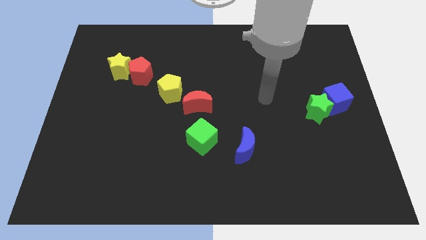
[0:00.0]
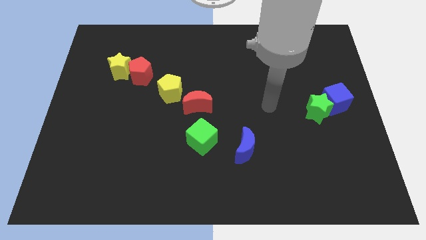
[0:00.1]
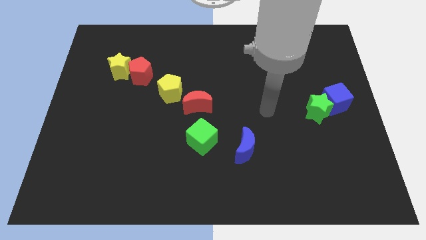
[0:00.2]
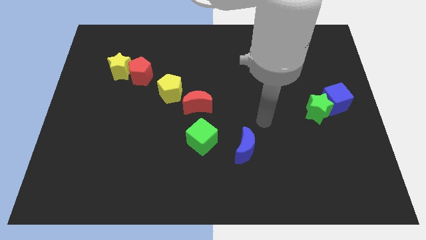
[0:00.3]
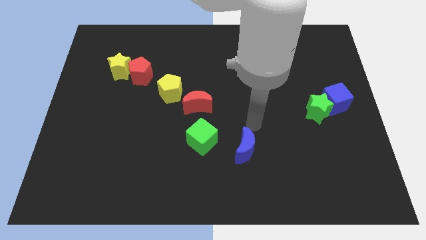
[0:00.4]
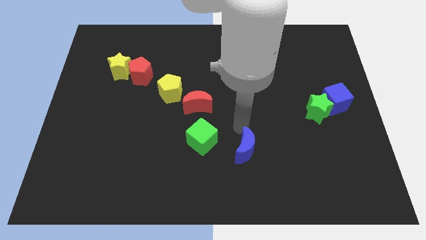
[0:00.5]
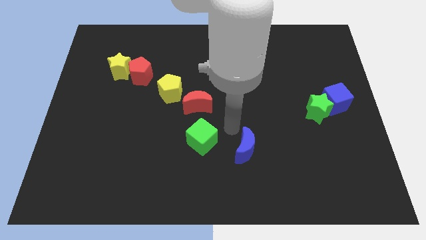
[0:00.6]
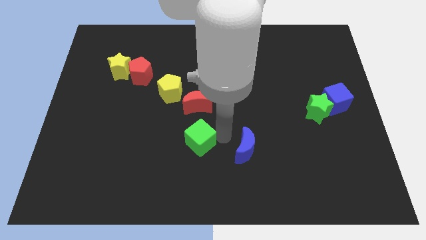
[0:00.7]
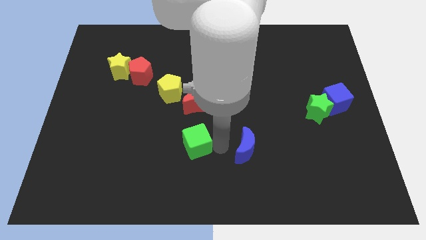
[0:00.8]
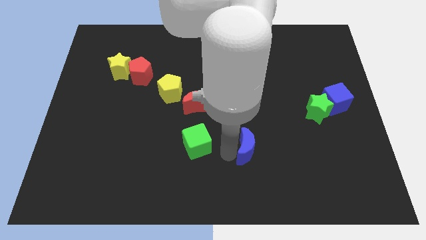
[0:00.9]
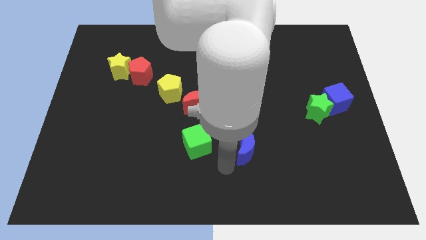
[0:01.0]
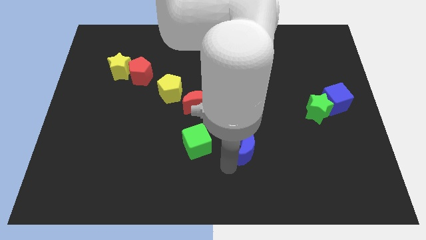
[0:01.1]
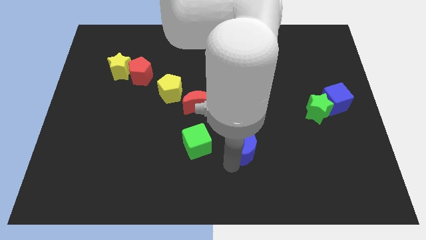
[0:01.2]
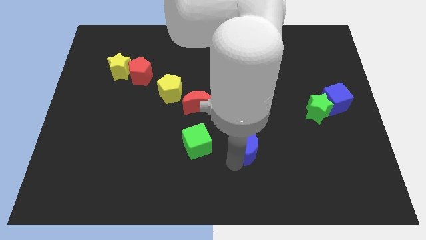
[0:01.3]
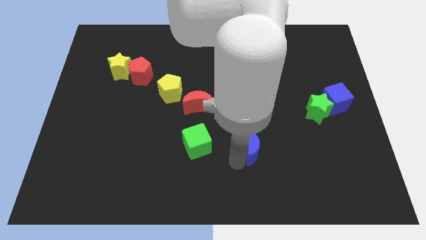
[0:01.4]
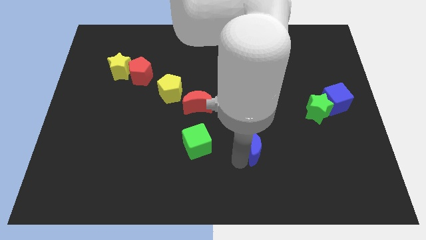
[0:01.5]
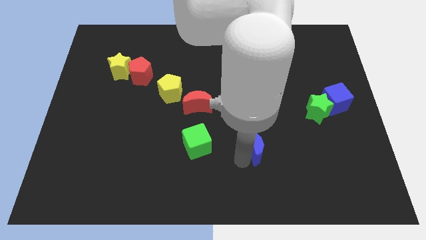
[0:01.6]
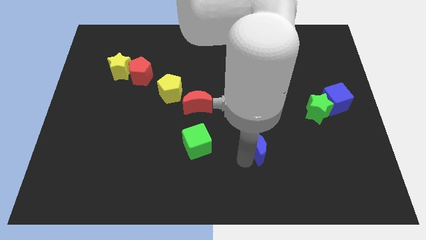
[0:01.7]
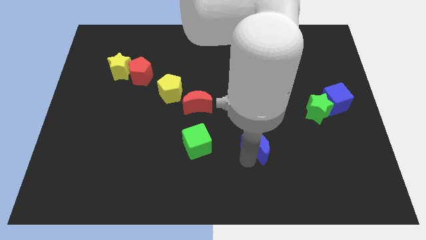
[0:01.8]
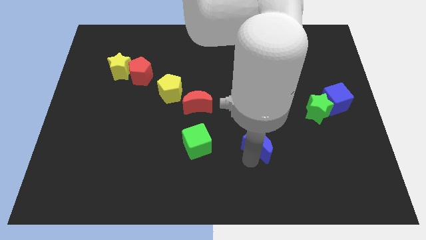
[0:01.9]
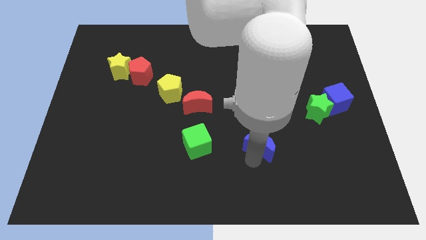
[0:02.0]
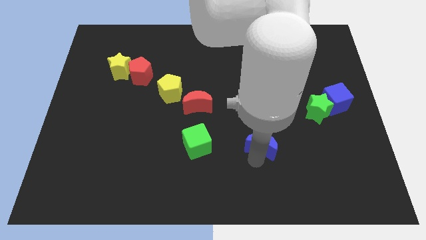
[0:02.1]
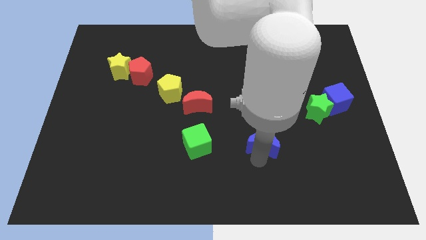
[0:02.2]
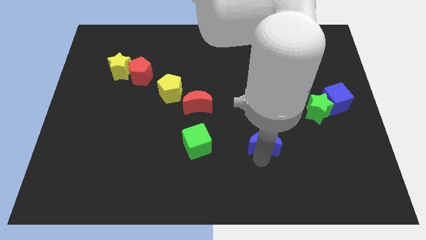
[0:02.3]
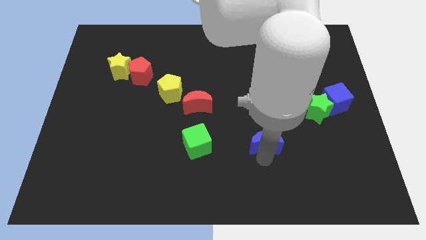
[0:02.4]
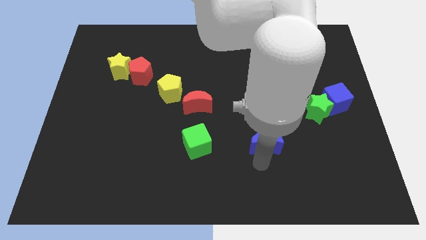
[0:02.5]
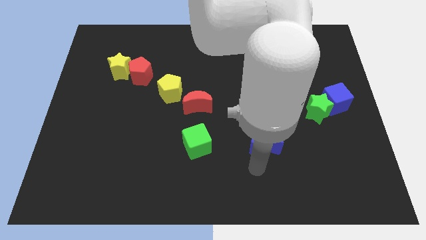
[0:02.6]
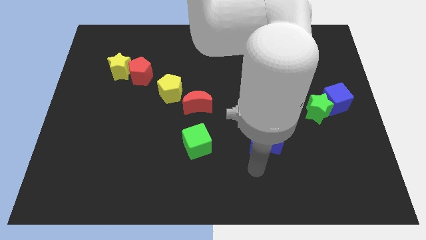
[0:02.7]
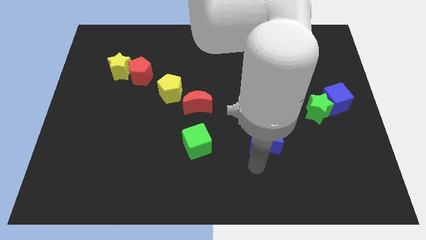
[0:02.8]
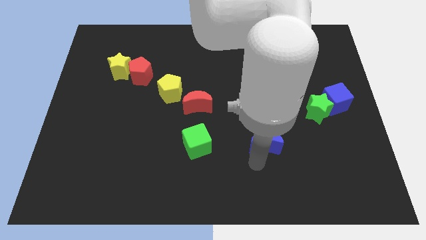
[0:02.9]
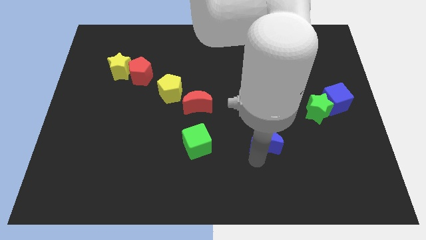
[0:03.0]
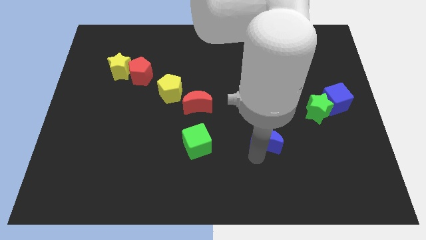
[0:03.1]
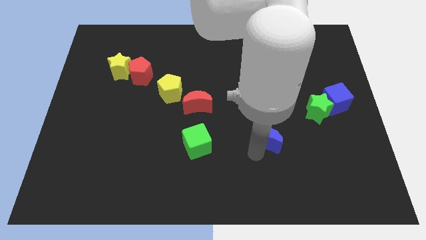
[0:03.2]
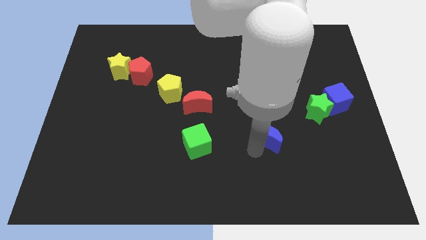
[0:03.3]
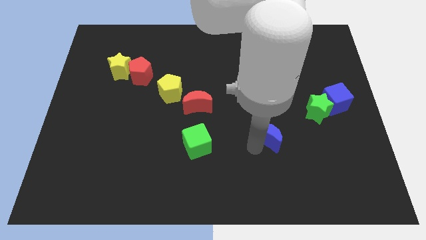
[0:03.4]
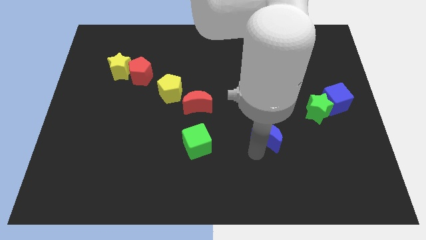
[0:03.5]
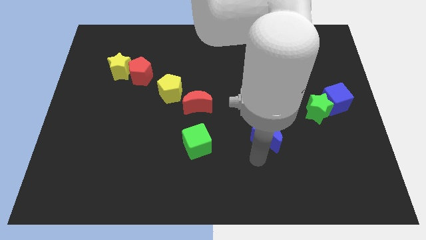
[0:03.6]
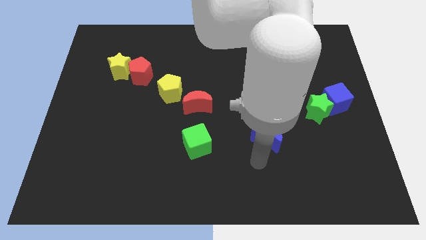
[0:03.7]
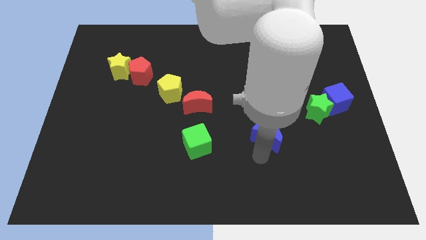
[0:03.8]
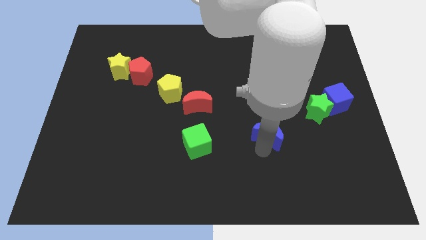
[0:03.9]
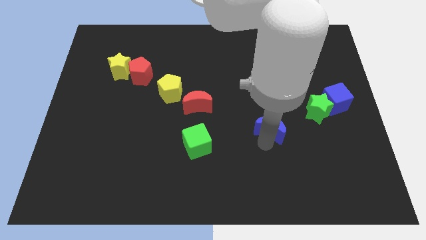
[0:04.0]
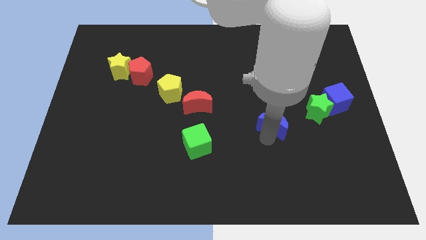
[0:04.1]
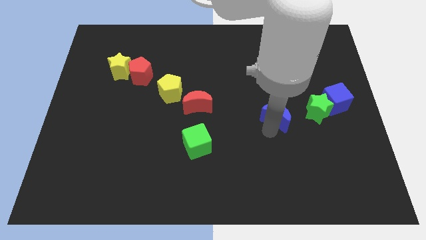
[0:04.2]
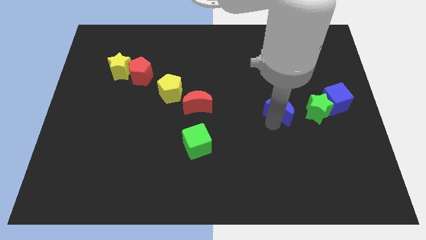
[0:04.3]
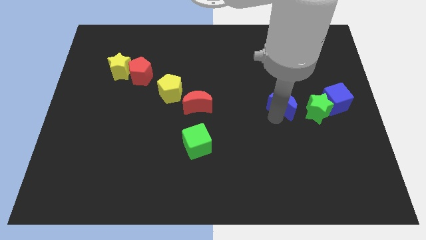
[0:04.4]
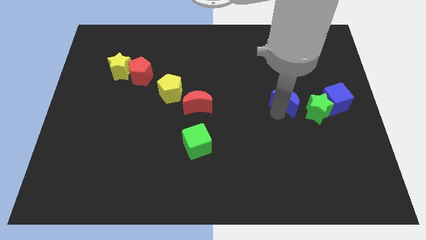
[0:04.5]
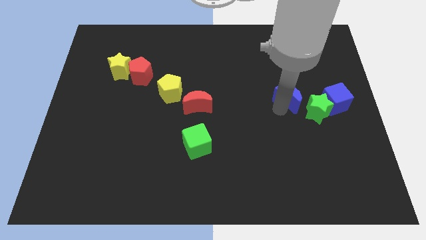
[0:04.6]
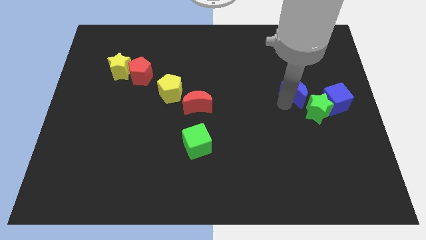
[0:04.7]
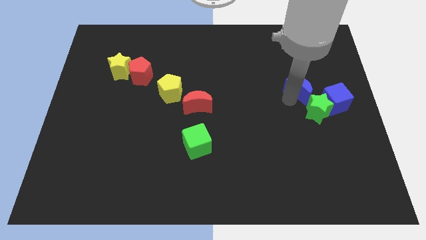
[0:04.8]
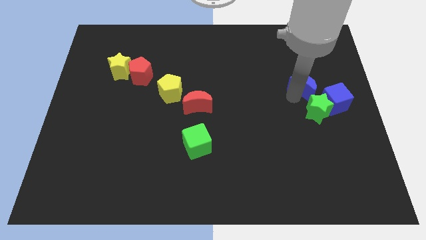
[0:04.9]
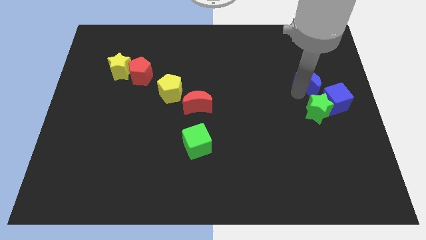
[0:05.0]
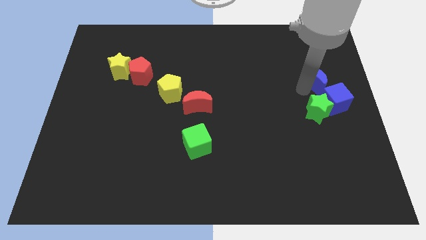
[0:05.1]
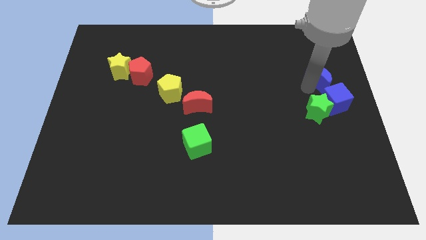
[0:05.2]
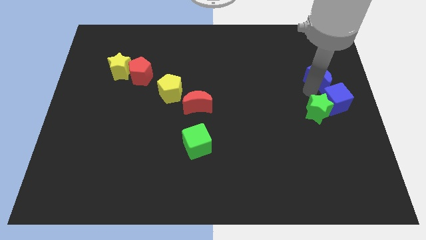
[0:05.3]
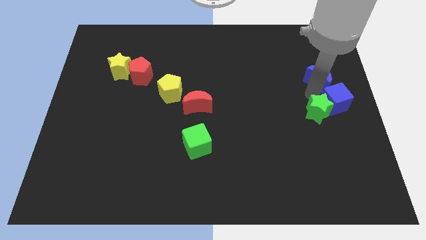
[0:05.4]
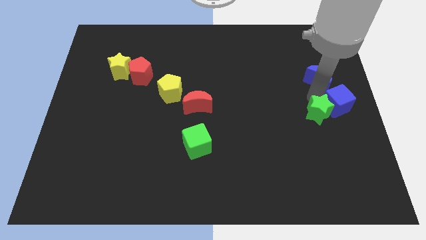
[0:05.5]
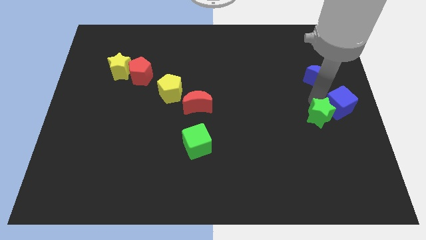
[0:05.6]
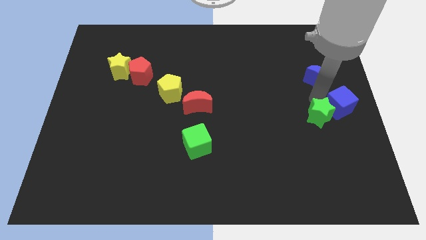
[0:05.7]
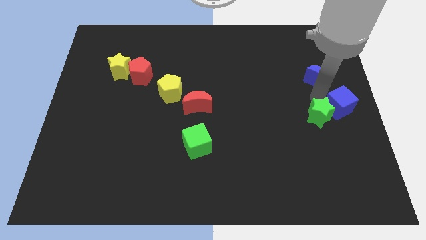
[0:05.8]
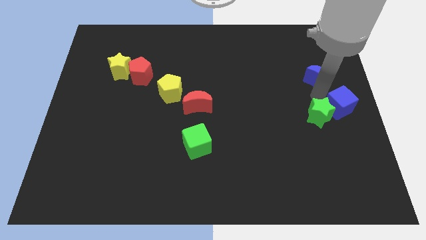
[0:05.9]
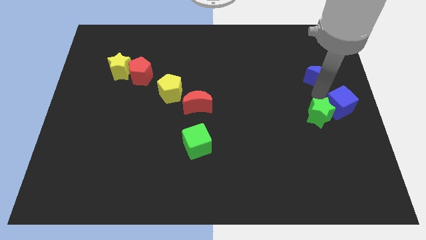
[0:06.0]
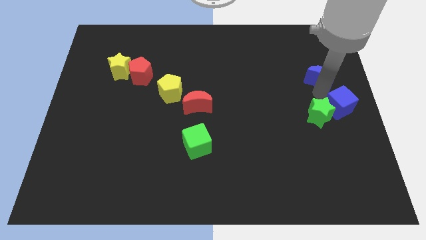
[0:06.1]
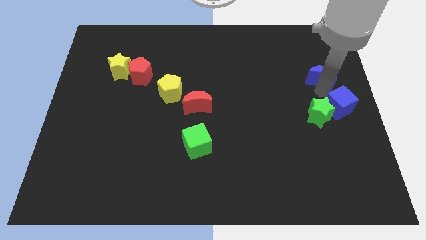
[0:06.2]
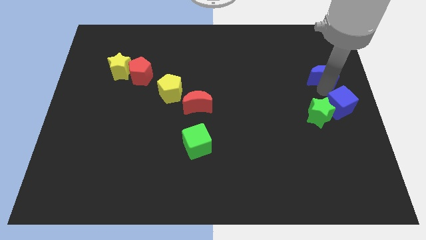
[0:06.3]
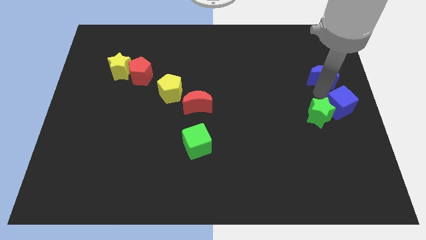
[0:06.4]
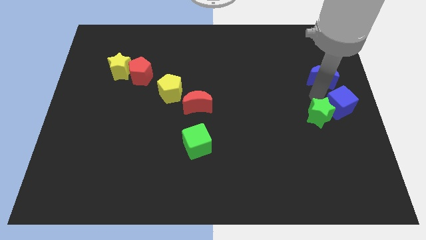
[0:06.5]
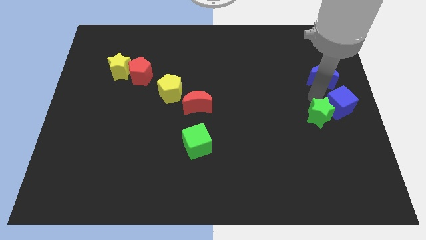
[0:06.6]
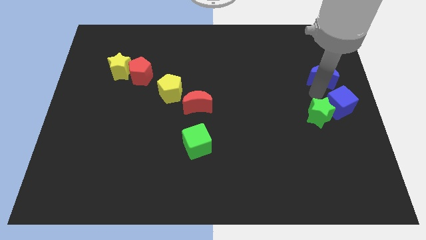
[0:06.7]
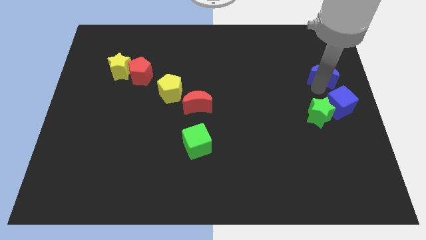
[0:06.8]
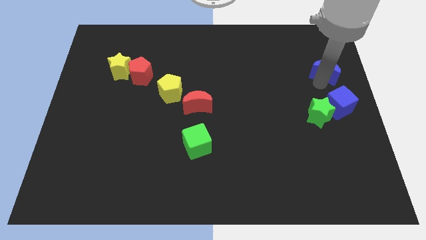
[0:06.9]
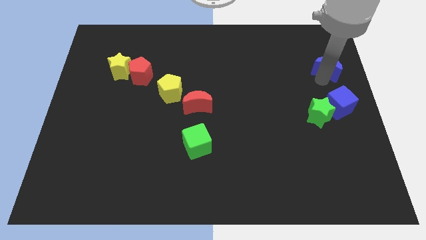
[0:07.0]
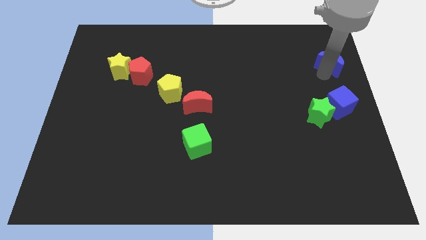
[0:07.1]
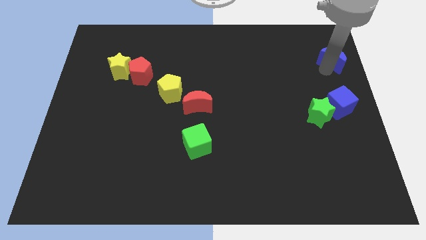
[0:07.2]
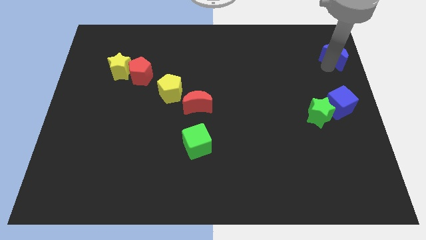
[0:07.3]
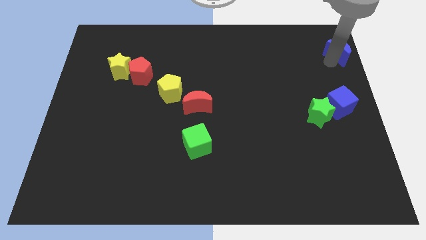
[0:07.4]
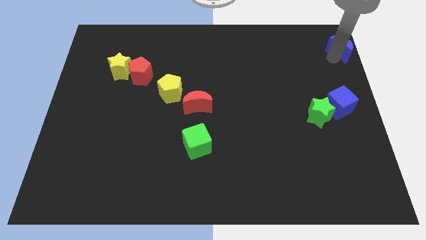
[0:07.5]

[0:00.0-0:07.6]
put the blue moon to the top right of the board
